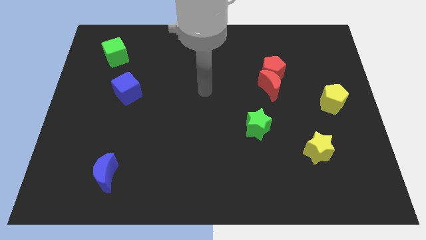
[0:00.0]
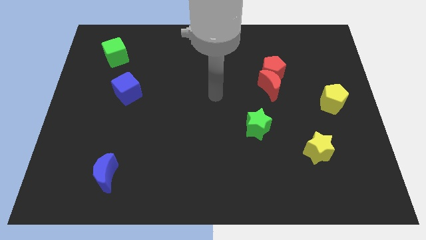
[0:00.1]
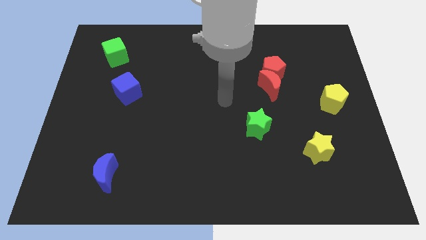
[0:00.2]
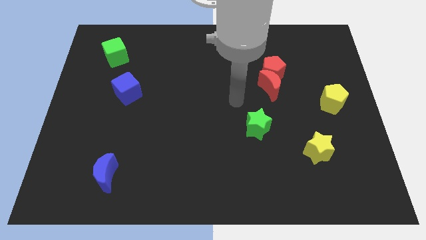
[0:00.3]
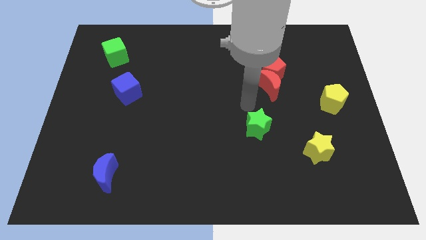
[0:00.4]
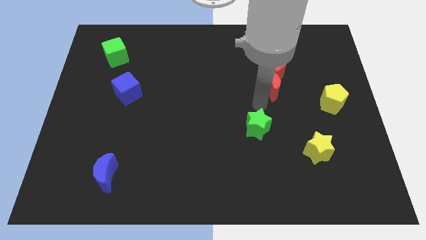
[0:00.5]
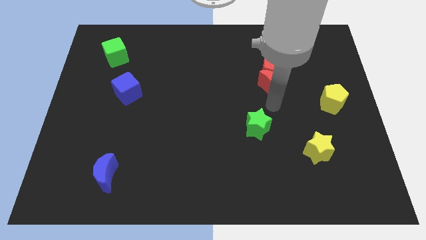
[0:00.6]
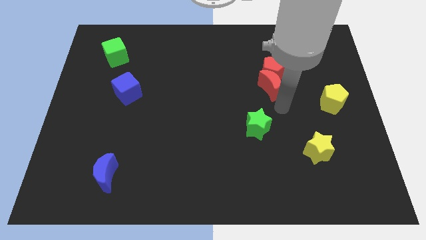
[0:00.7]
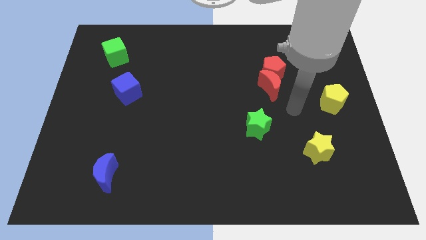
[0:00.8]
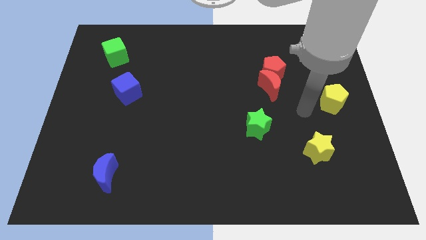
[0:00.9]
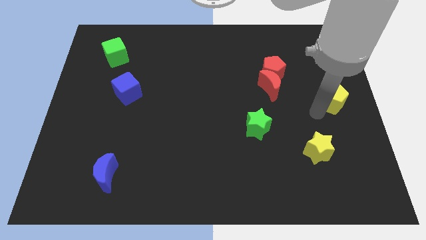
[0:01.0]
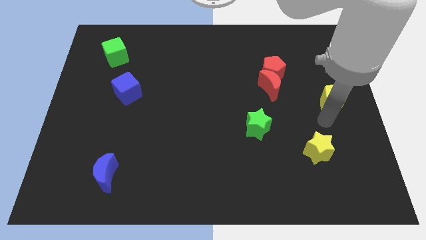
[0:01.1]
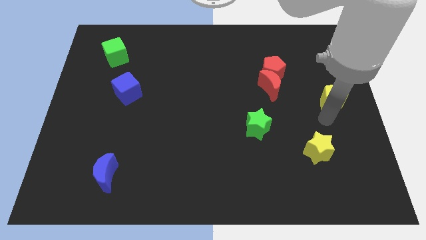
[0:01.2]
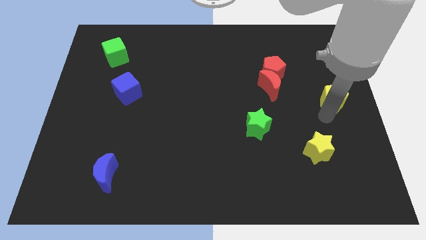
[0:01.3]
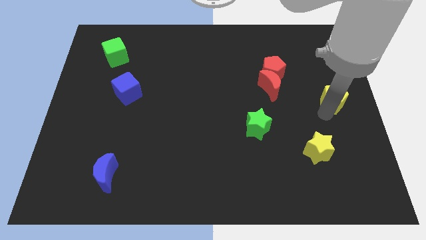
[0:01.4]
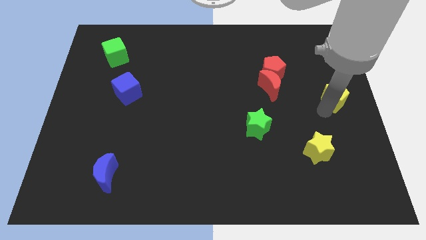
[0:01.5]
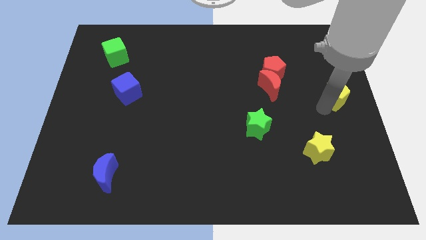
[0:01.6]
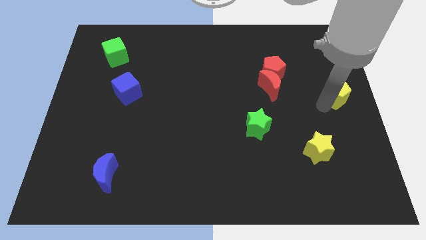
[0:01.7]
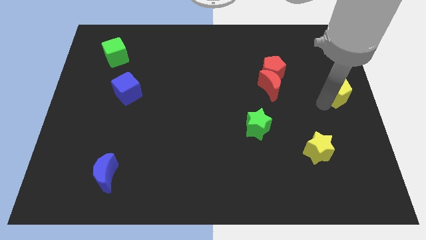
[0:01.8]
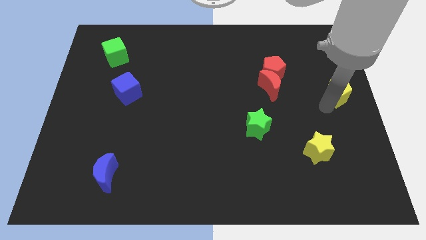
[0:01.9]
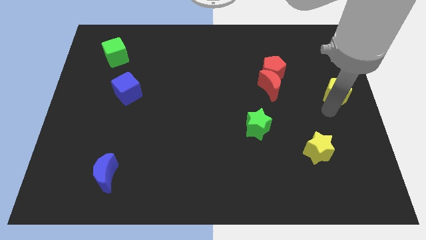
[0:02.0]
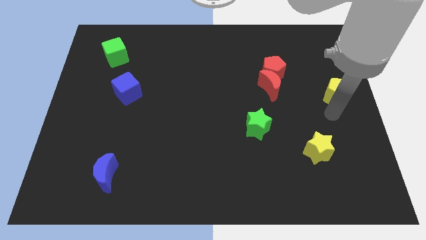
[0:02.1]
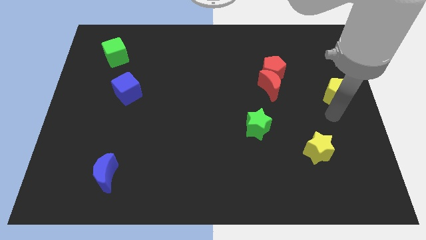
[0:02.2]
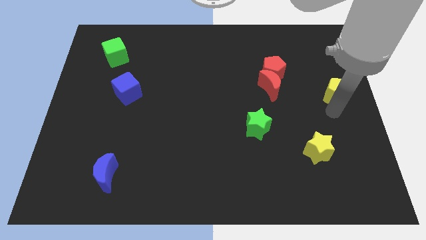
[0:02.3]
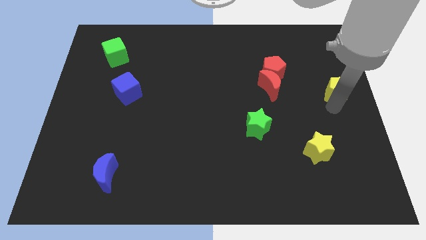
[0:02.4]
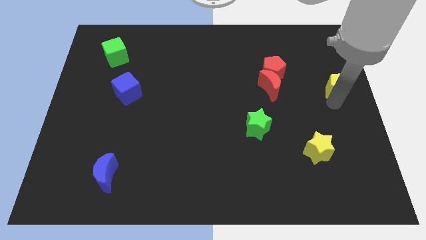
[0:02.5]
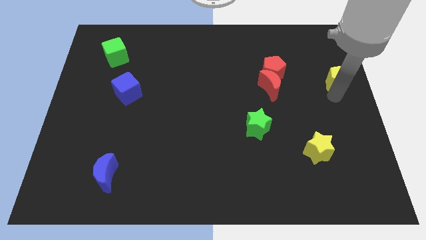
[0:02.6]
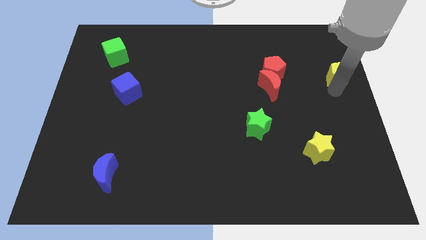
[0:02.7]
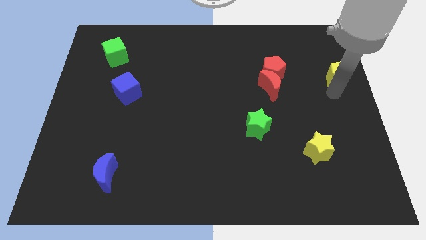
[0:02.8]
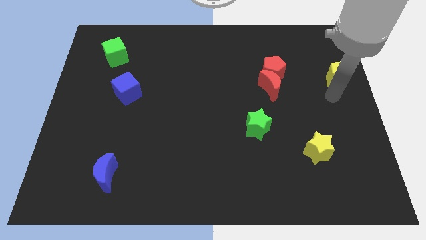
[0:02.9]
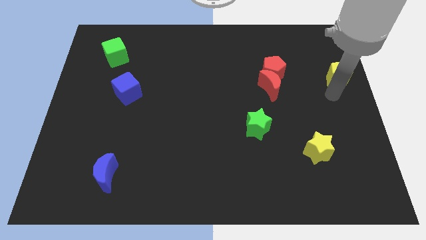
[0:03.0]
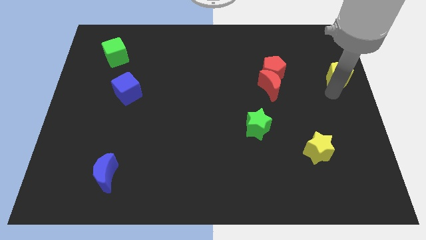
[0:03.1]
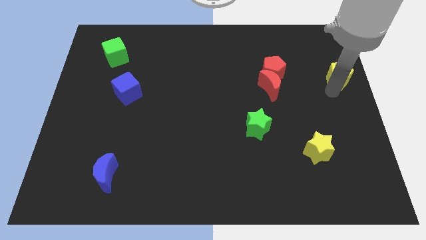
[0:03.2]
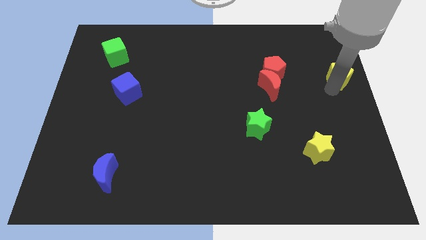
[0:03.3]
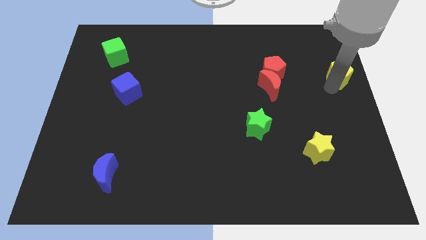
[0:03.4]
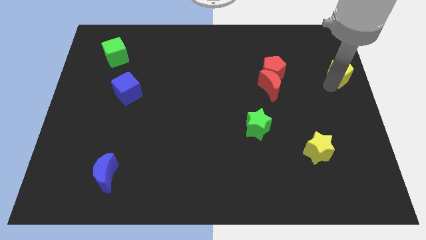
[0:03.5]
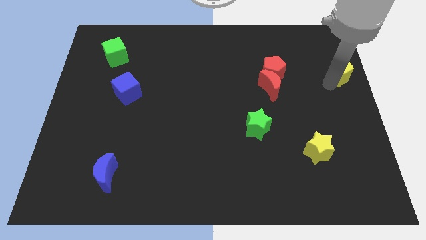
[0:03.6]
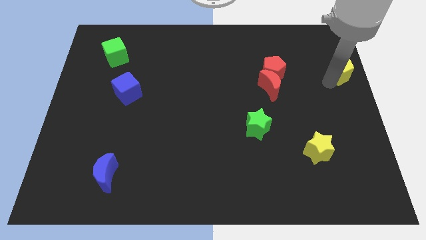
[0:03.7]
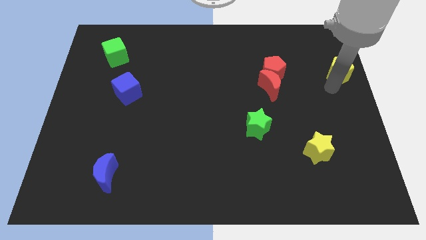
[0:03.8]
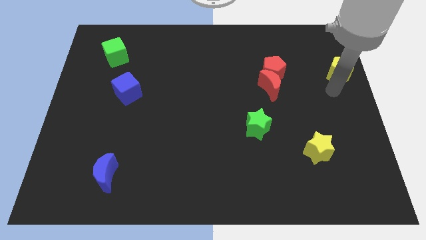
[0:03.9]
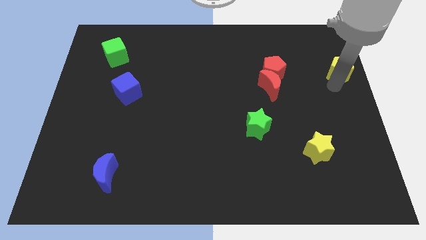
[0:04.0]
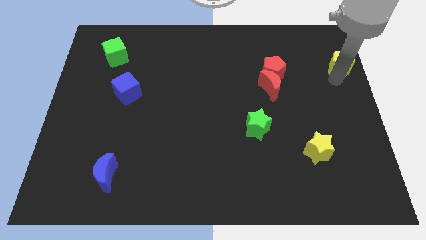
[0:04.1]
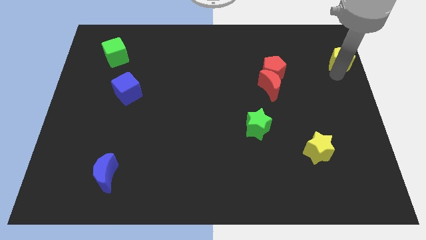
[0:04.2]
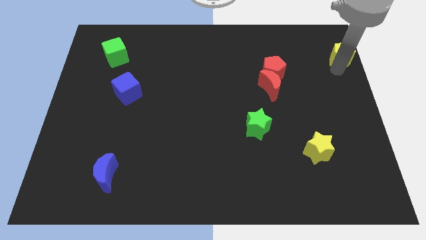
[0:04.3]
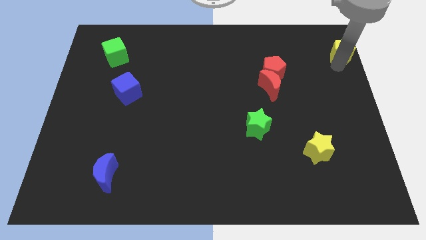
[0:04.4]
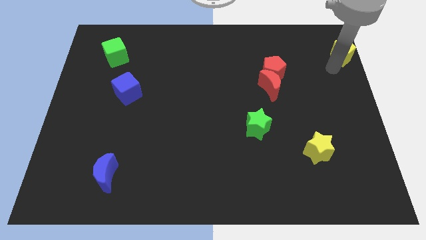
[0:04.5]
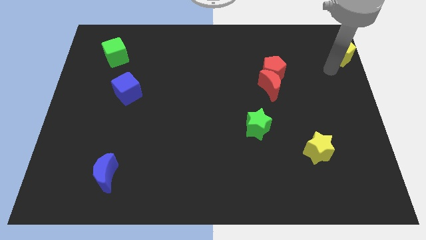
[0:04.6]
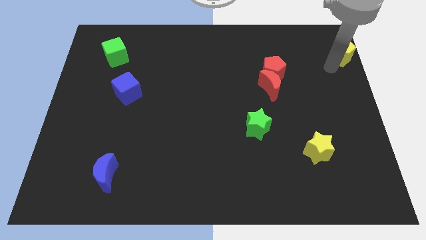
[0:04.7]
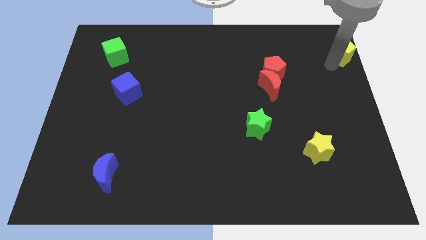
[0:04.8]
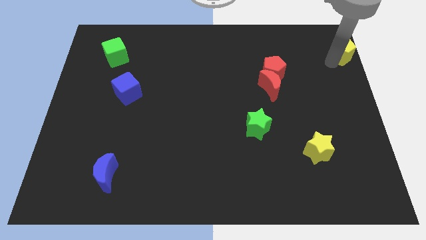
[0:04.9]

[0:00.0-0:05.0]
put the yellow pentagon to the top right corner

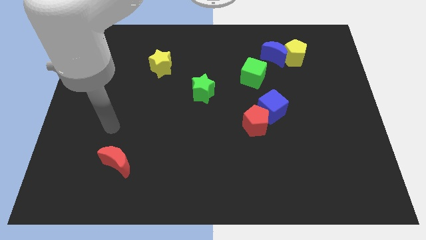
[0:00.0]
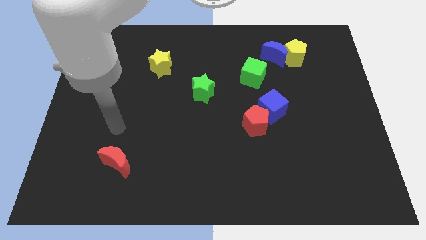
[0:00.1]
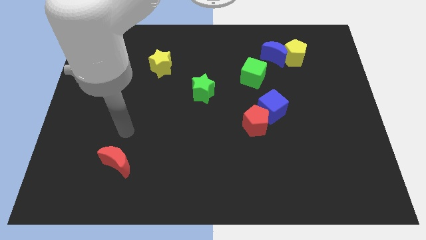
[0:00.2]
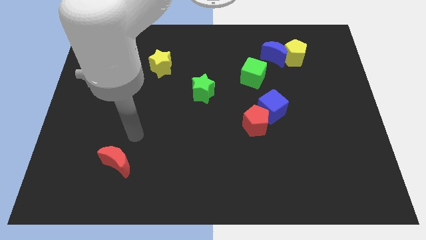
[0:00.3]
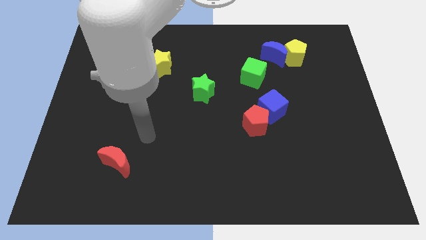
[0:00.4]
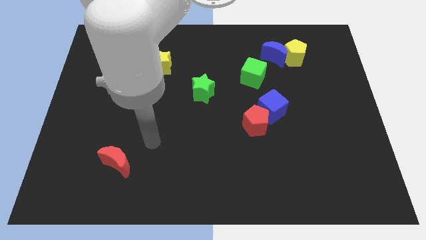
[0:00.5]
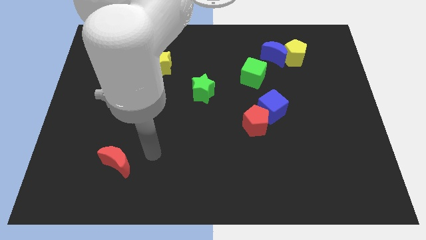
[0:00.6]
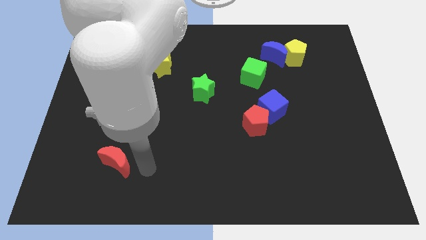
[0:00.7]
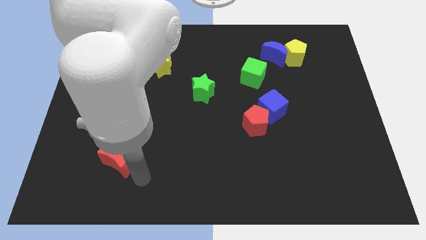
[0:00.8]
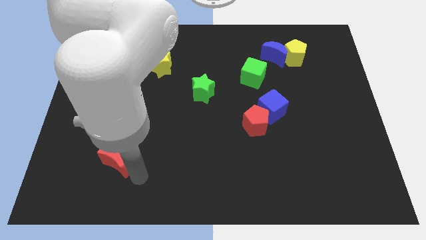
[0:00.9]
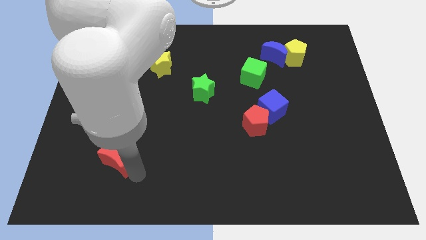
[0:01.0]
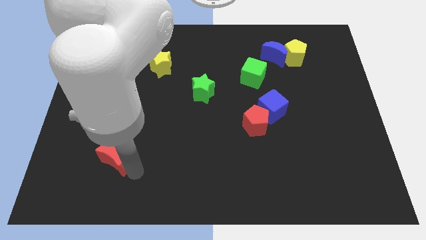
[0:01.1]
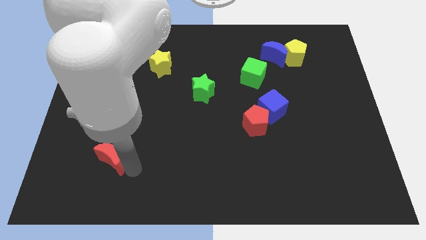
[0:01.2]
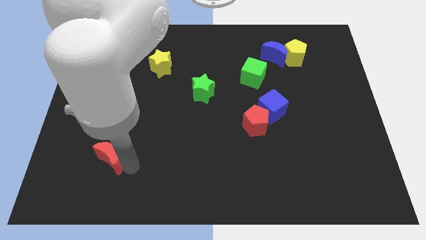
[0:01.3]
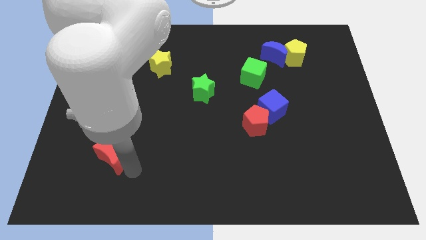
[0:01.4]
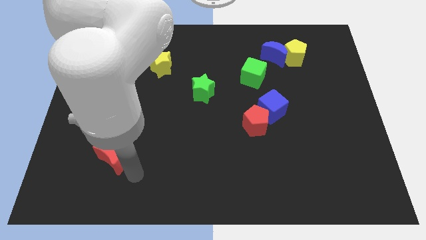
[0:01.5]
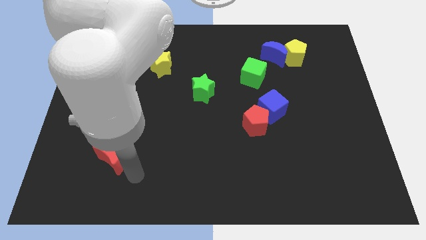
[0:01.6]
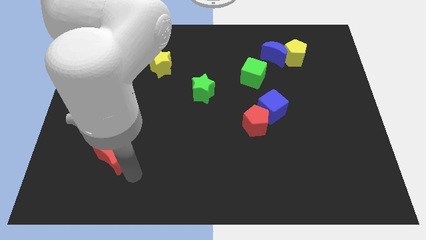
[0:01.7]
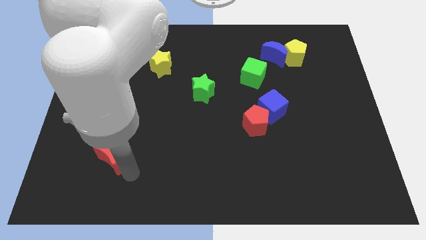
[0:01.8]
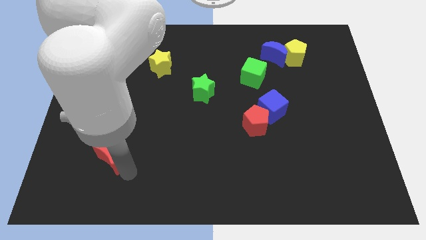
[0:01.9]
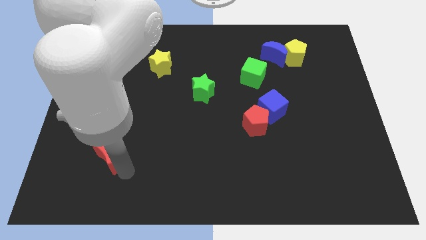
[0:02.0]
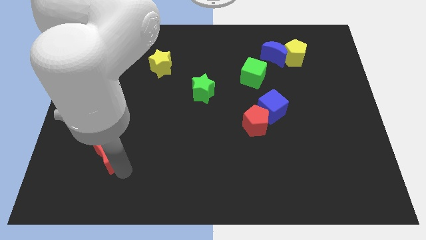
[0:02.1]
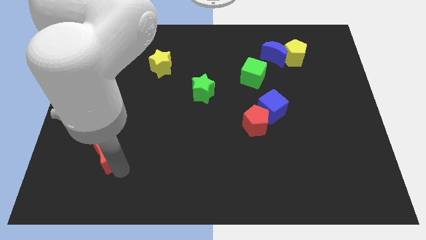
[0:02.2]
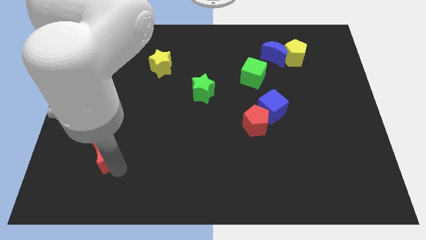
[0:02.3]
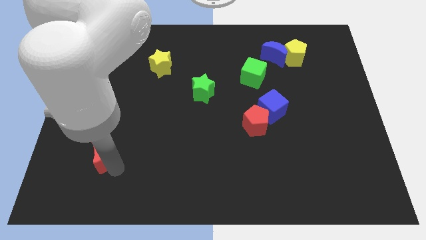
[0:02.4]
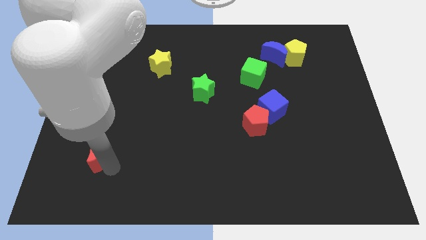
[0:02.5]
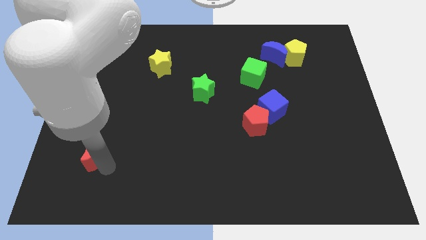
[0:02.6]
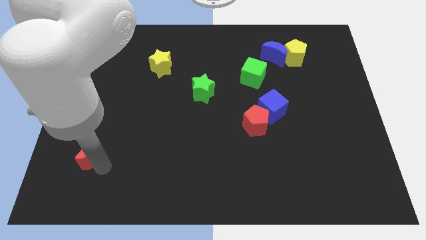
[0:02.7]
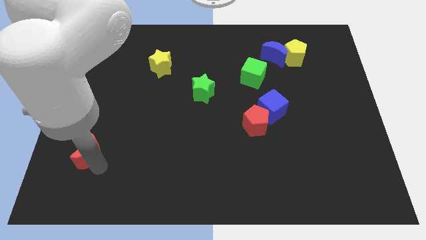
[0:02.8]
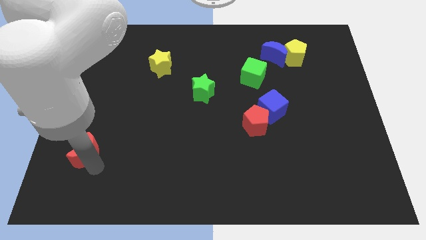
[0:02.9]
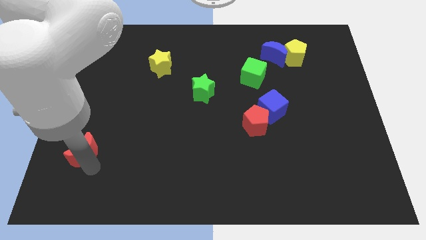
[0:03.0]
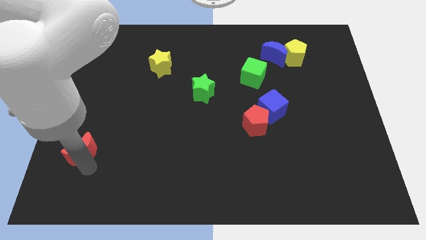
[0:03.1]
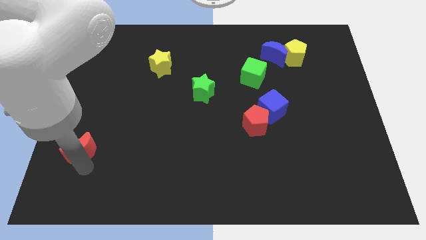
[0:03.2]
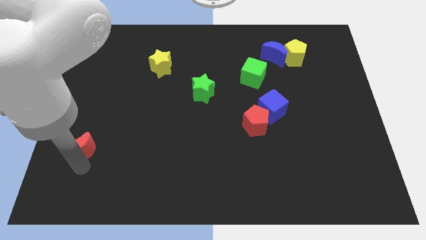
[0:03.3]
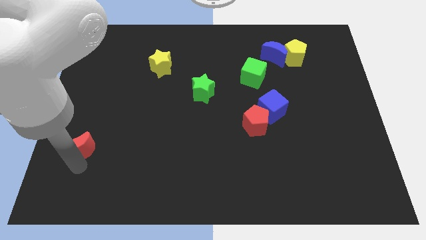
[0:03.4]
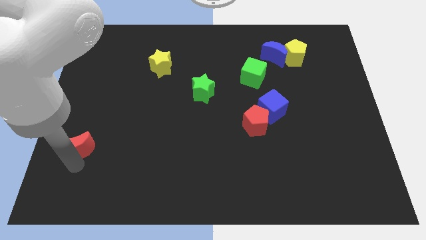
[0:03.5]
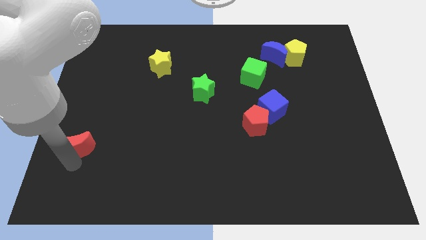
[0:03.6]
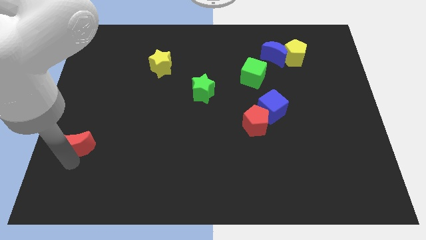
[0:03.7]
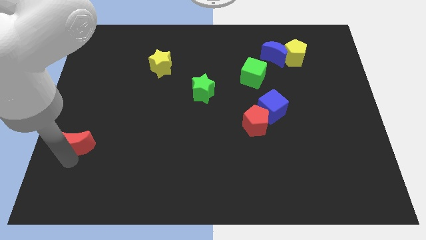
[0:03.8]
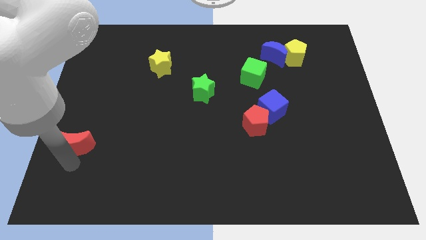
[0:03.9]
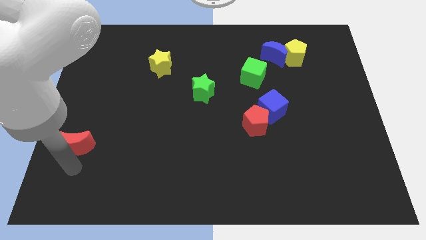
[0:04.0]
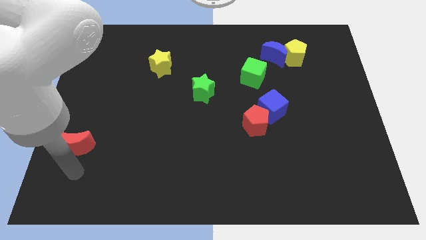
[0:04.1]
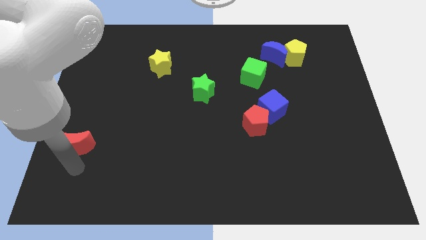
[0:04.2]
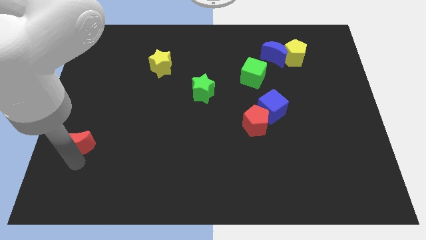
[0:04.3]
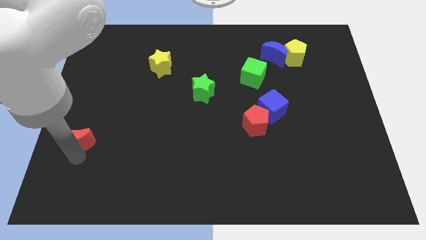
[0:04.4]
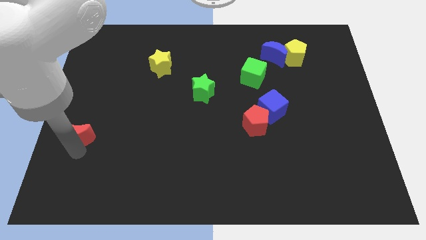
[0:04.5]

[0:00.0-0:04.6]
put the red moon to the left side of the board
